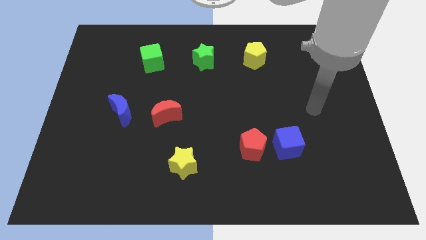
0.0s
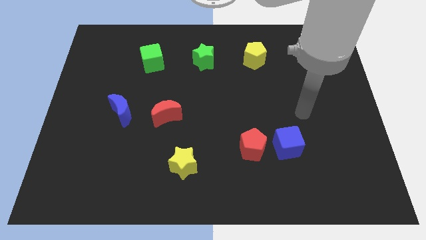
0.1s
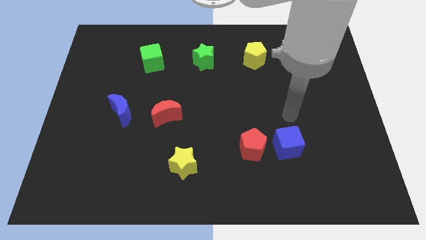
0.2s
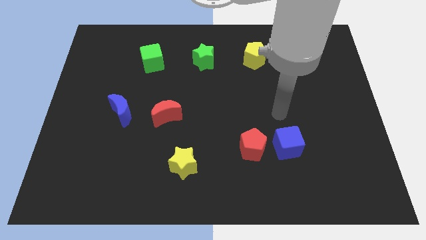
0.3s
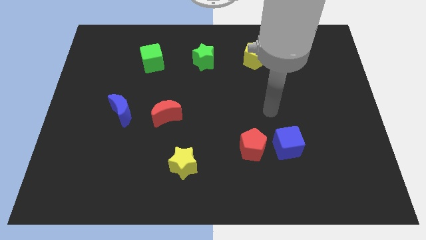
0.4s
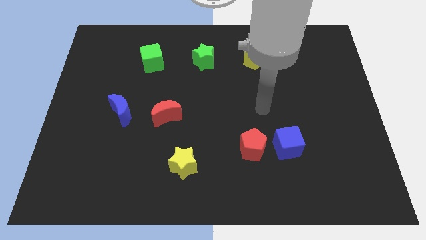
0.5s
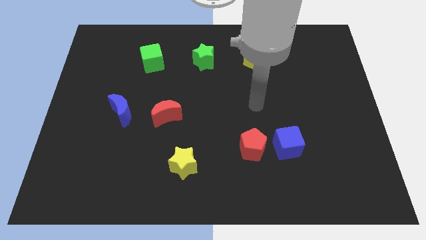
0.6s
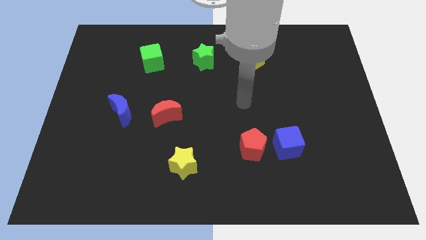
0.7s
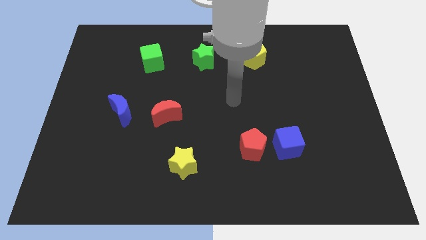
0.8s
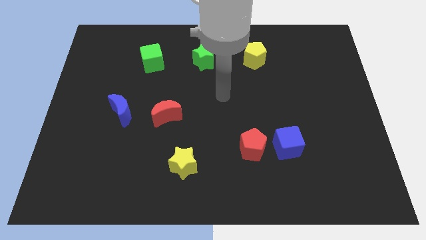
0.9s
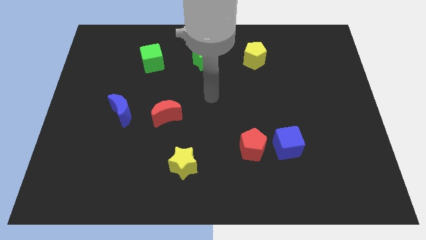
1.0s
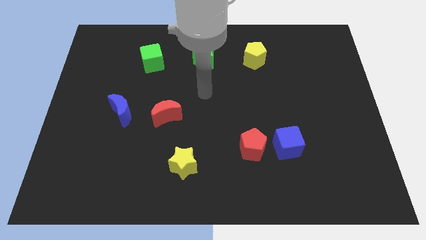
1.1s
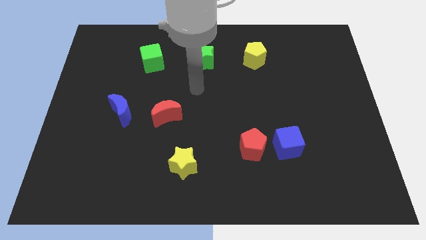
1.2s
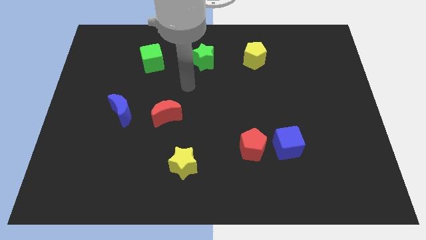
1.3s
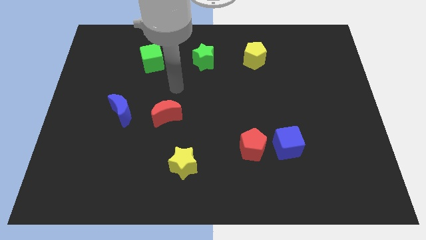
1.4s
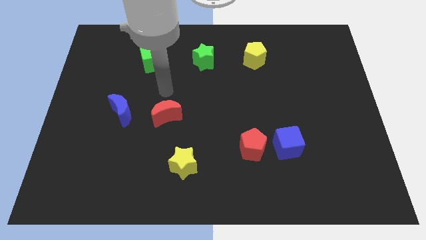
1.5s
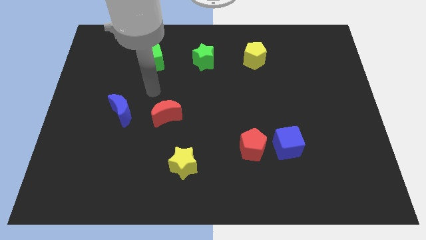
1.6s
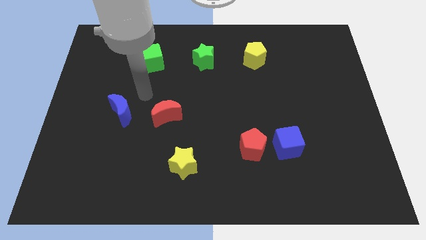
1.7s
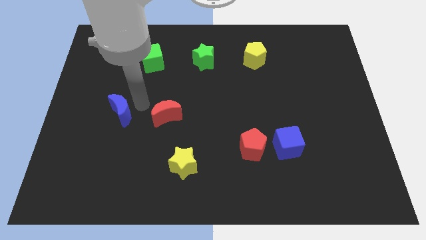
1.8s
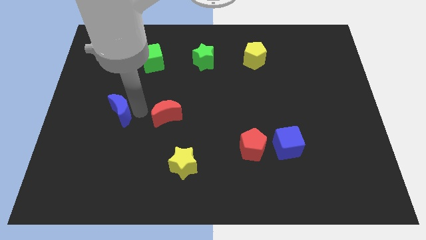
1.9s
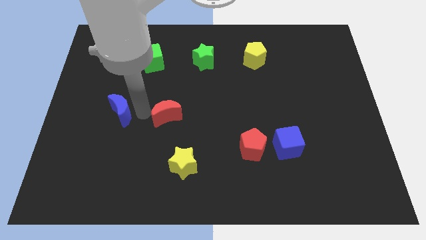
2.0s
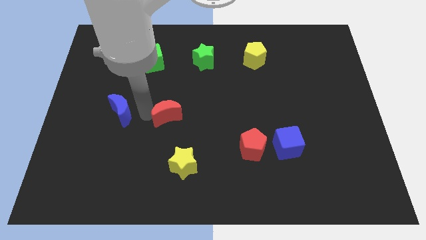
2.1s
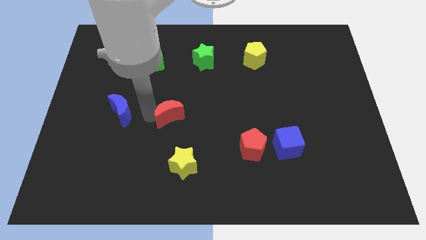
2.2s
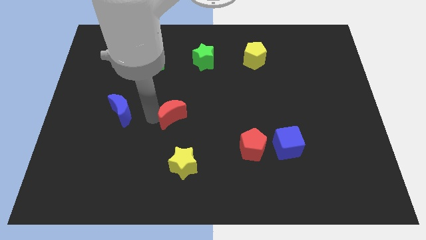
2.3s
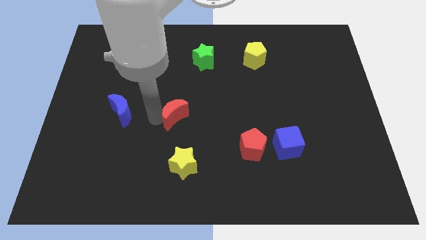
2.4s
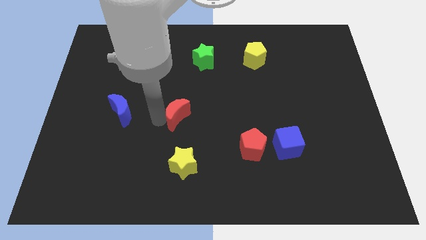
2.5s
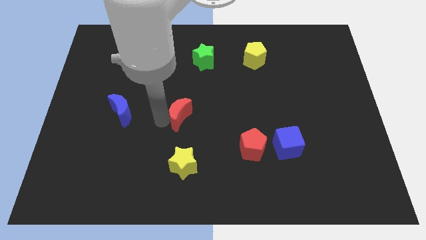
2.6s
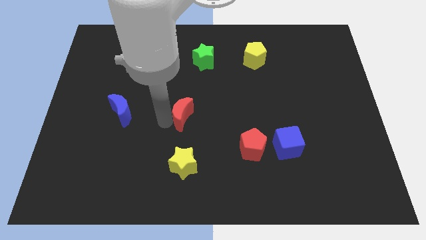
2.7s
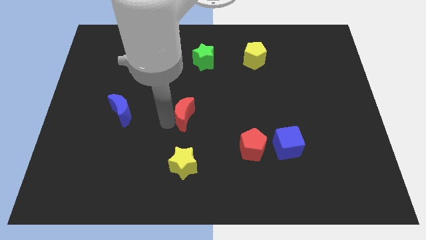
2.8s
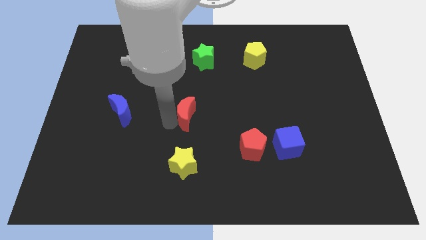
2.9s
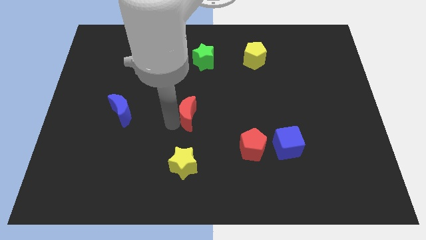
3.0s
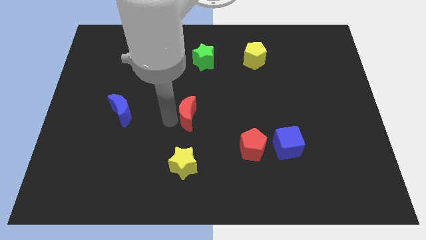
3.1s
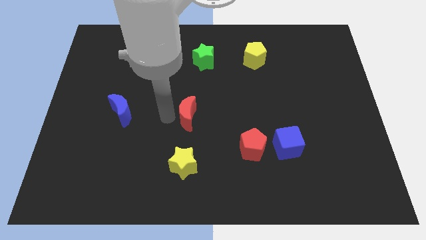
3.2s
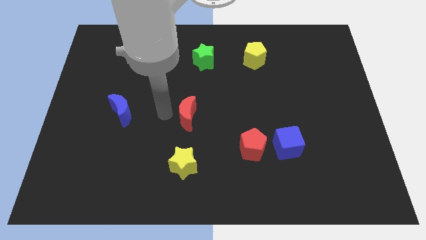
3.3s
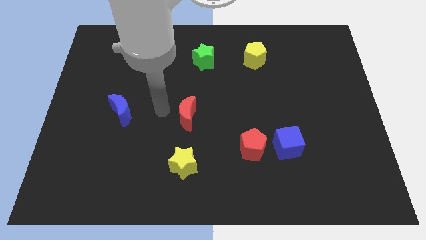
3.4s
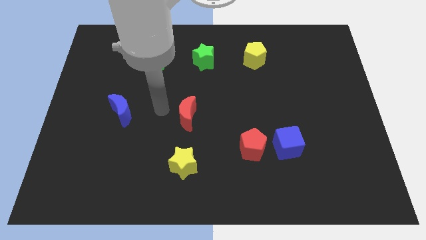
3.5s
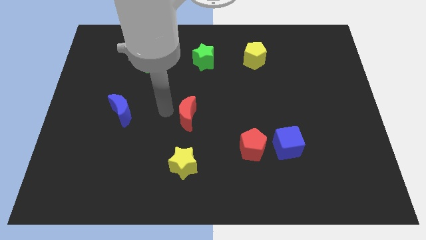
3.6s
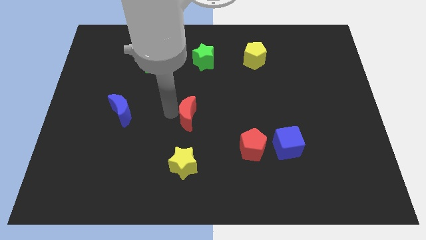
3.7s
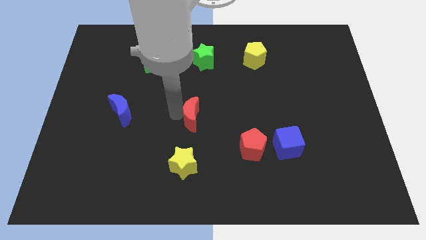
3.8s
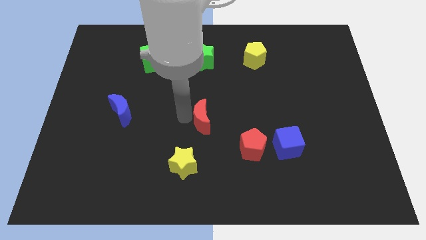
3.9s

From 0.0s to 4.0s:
slide the red moon right a little

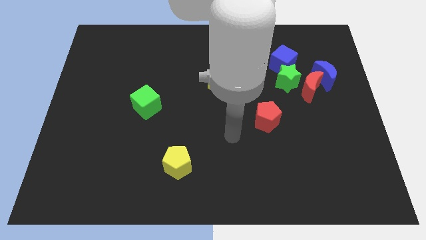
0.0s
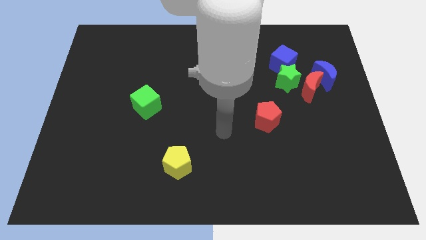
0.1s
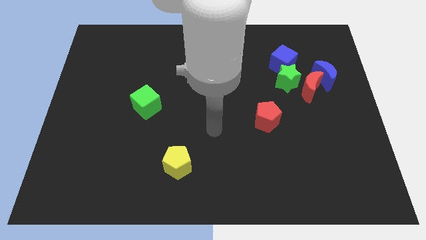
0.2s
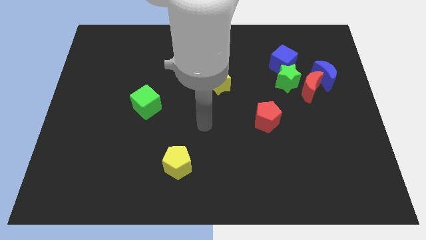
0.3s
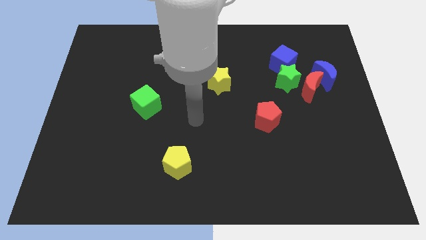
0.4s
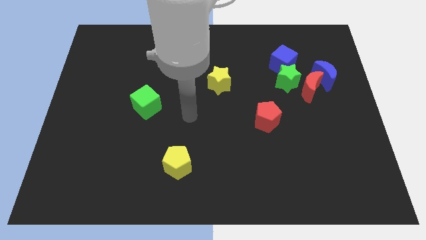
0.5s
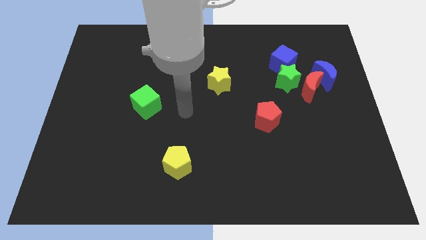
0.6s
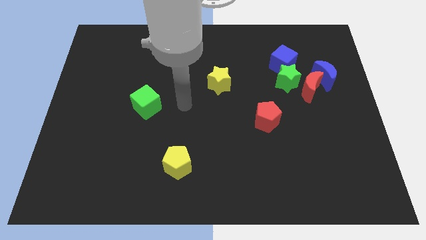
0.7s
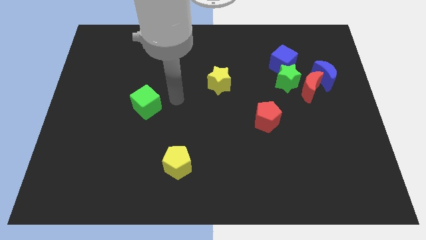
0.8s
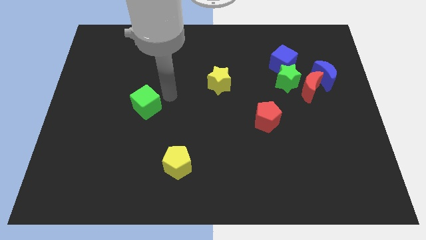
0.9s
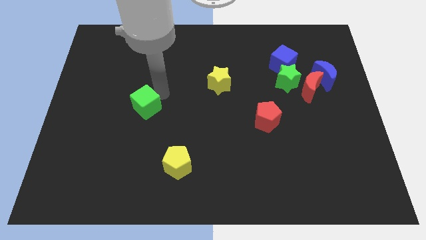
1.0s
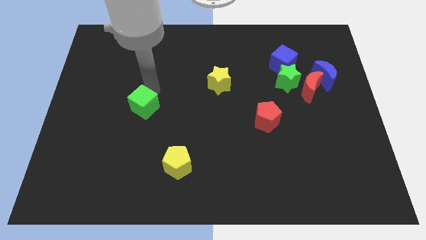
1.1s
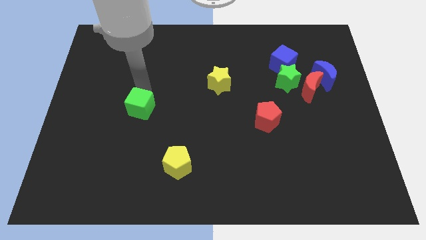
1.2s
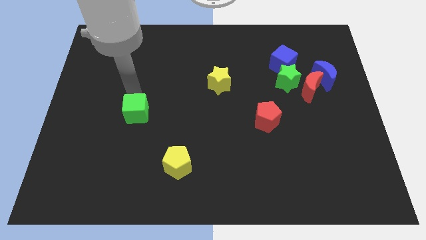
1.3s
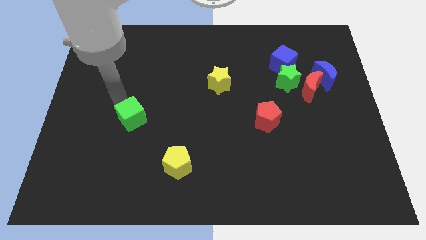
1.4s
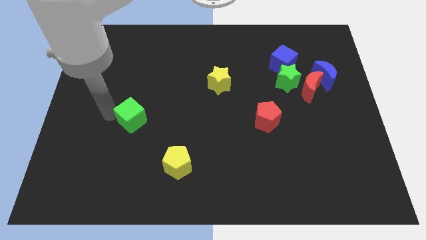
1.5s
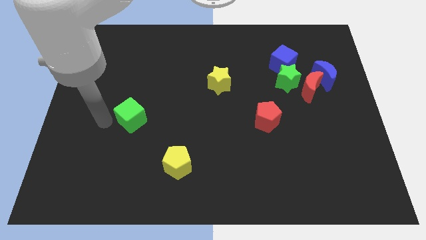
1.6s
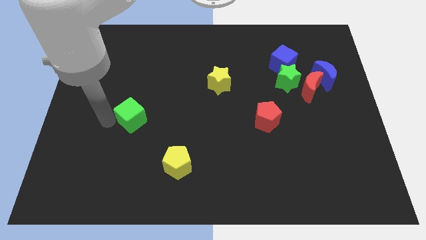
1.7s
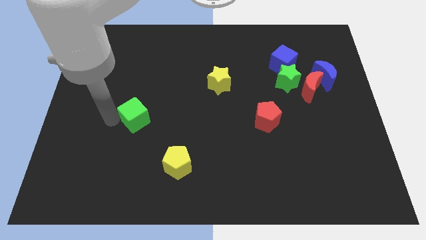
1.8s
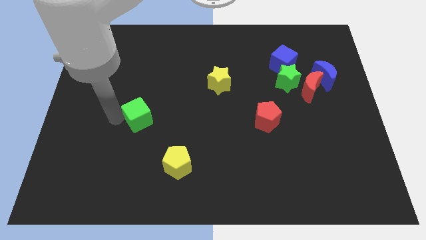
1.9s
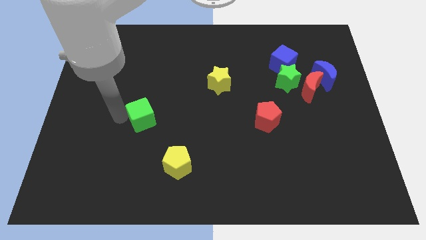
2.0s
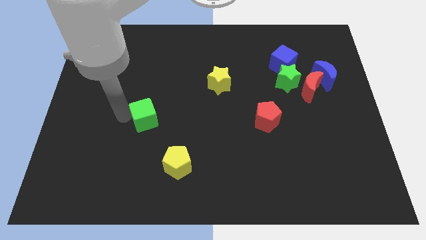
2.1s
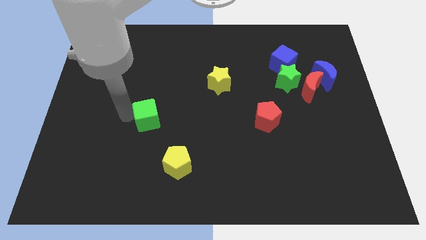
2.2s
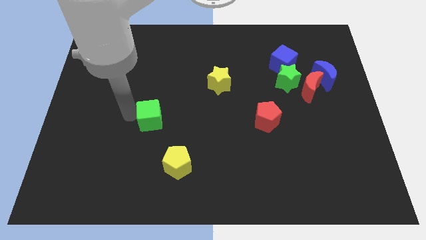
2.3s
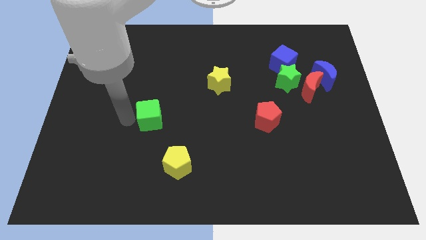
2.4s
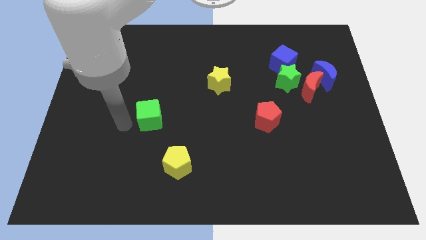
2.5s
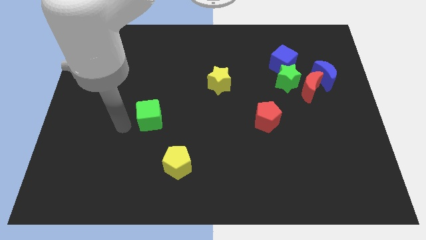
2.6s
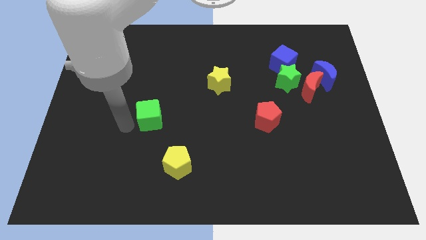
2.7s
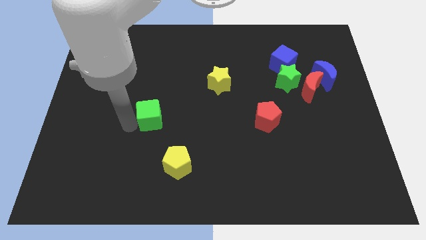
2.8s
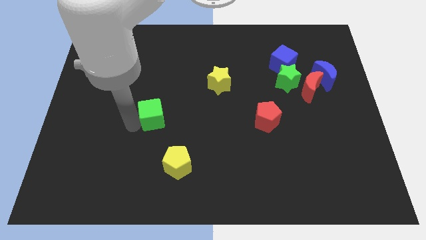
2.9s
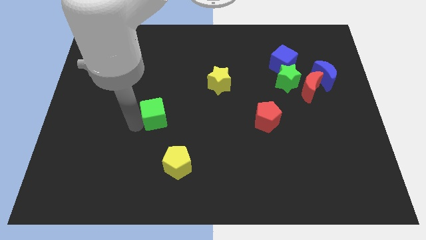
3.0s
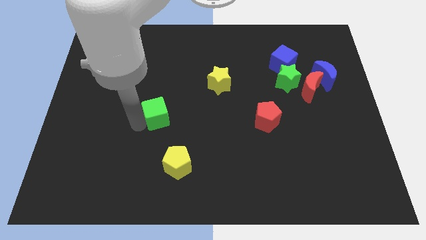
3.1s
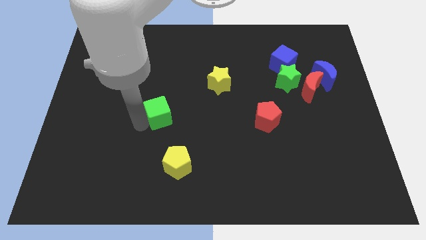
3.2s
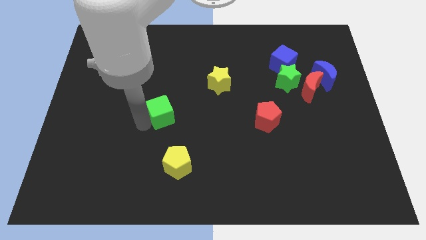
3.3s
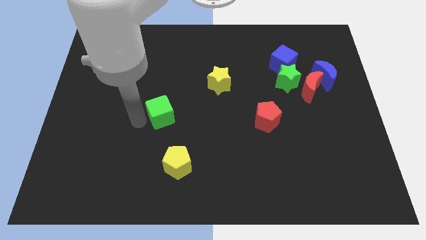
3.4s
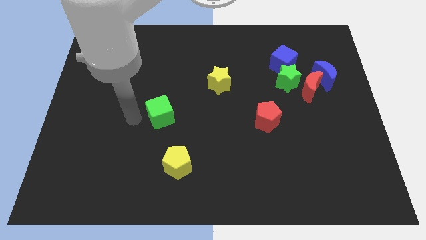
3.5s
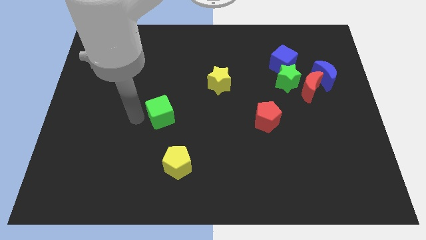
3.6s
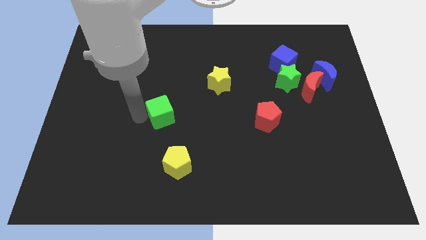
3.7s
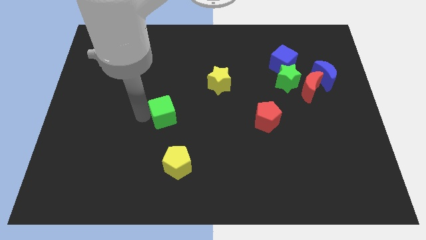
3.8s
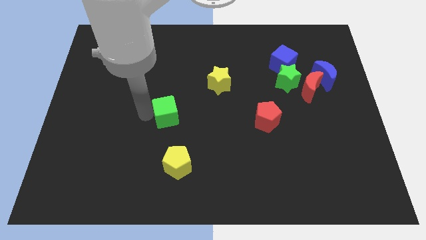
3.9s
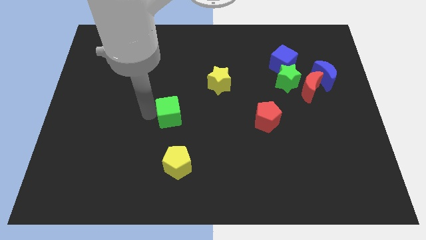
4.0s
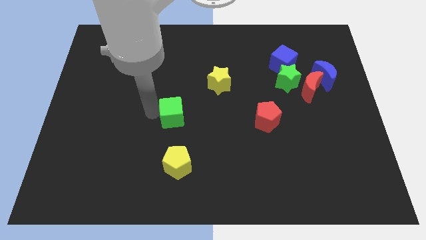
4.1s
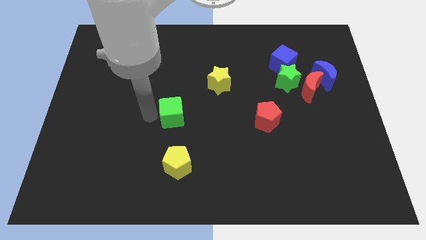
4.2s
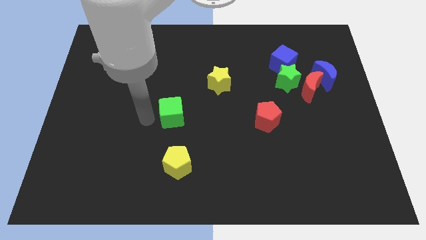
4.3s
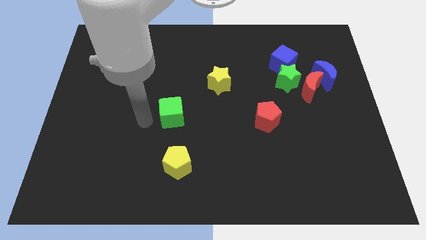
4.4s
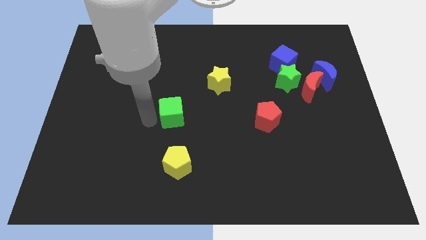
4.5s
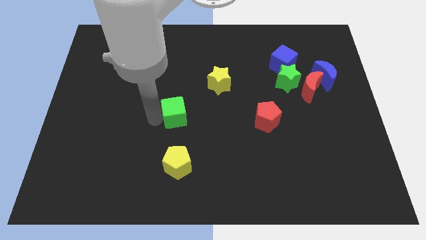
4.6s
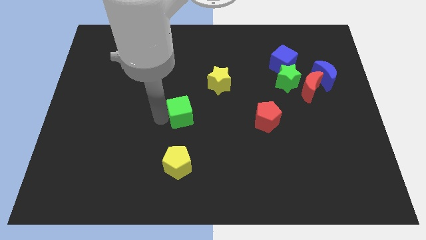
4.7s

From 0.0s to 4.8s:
slightly slide the green cube right
